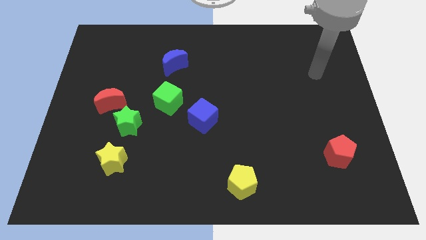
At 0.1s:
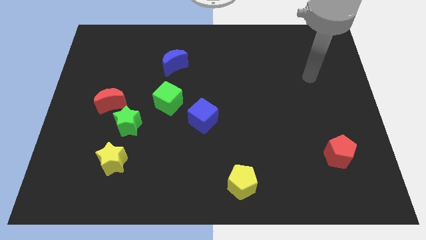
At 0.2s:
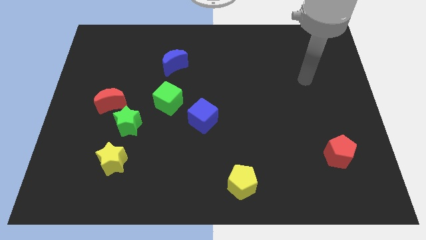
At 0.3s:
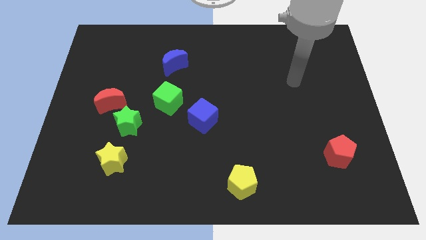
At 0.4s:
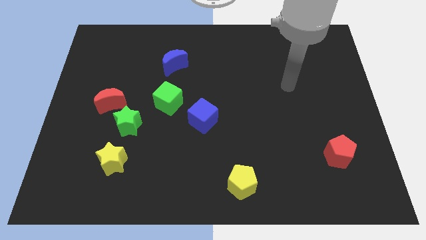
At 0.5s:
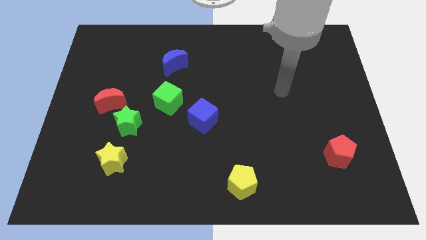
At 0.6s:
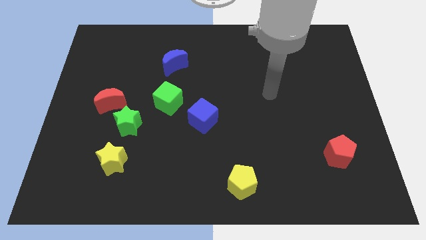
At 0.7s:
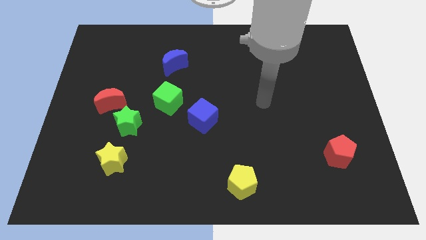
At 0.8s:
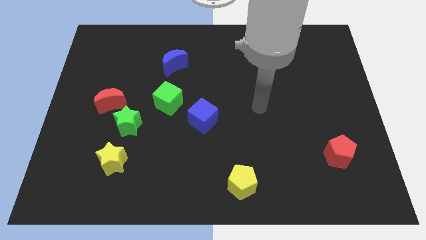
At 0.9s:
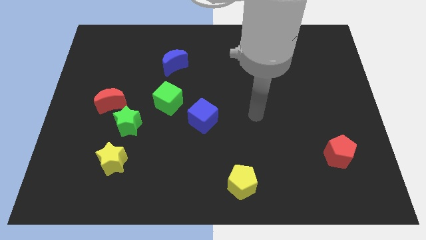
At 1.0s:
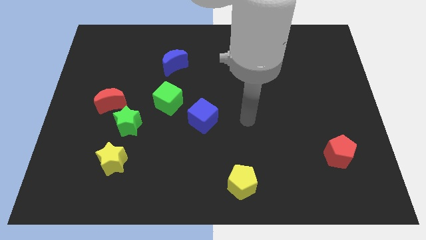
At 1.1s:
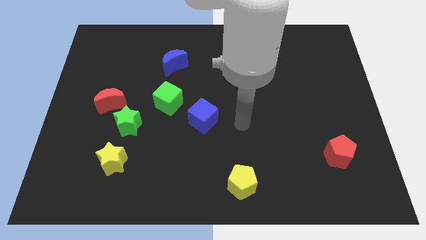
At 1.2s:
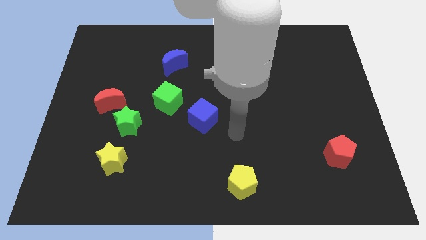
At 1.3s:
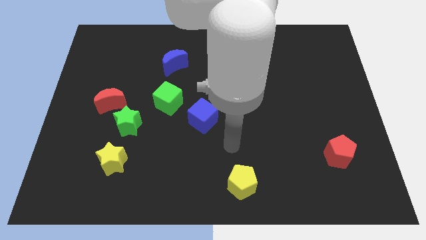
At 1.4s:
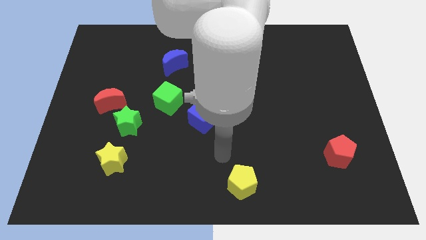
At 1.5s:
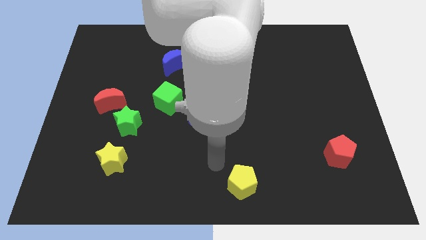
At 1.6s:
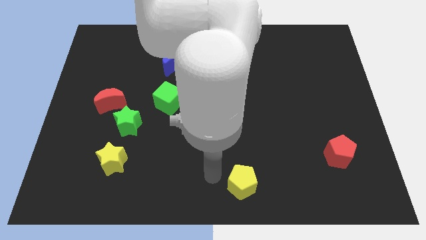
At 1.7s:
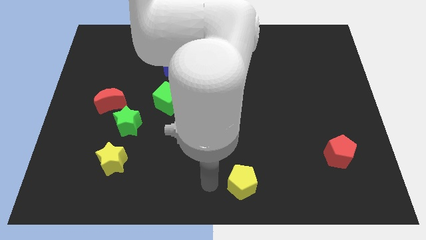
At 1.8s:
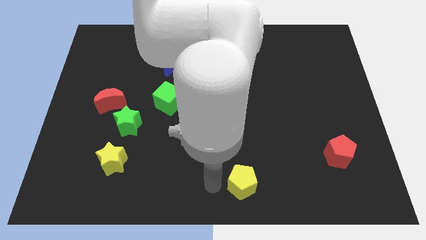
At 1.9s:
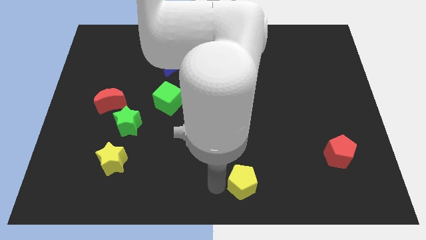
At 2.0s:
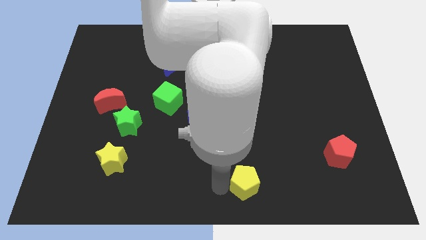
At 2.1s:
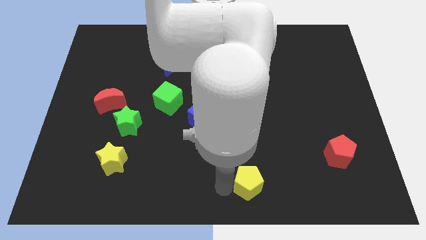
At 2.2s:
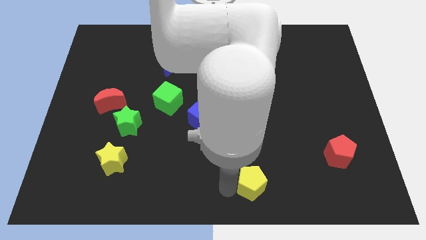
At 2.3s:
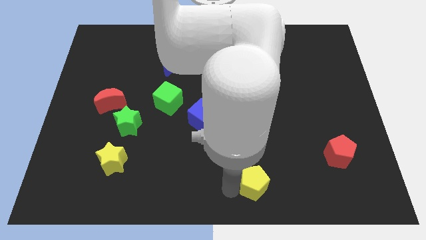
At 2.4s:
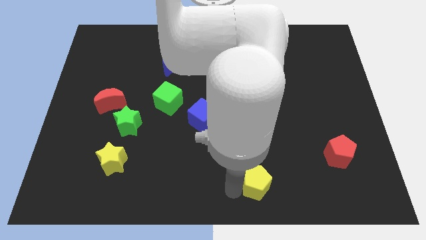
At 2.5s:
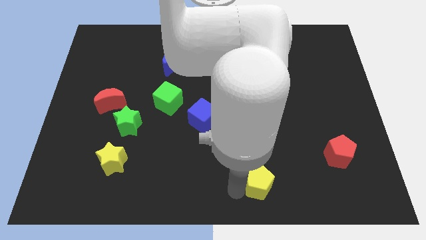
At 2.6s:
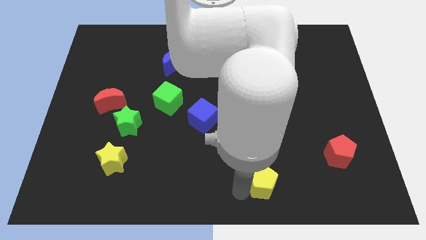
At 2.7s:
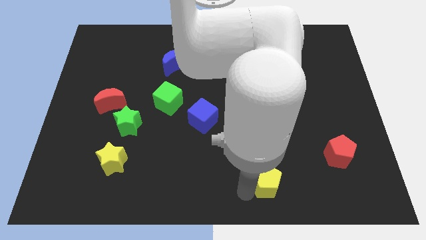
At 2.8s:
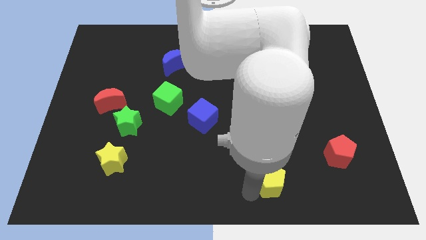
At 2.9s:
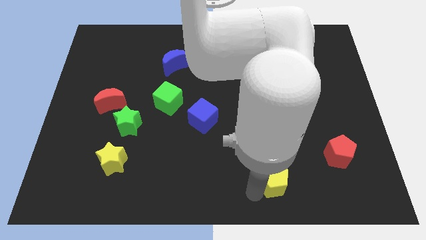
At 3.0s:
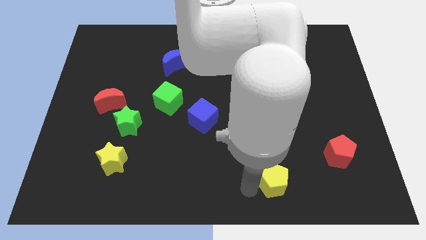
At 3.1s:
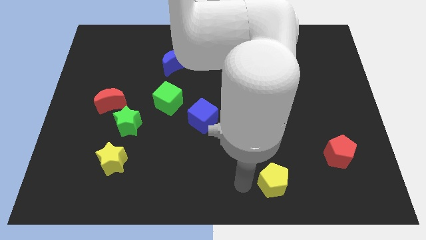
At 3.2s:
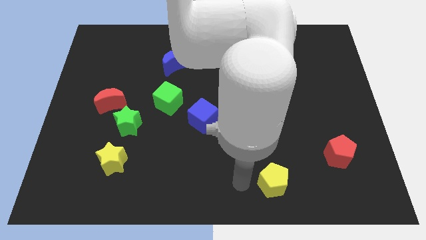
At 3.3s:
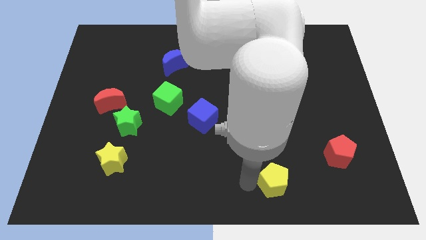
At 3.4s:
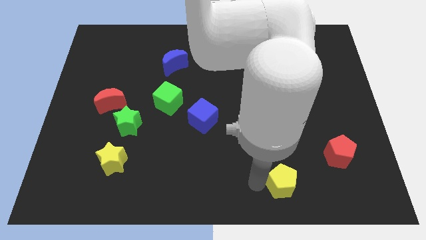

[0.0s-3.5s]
push the yellow pentagon a little bit to the right

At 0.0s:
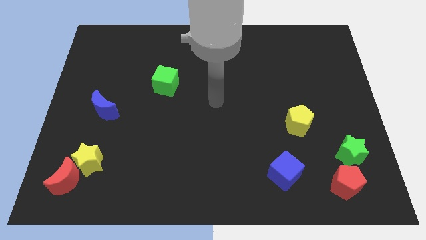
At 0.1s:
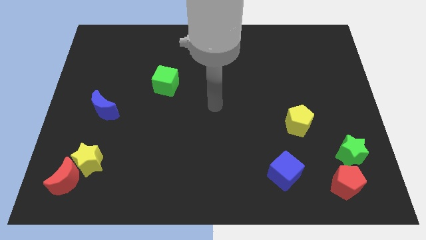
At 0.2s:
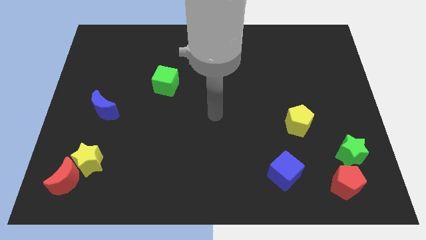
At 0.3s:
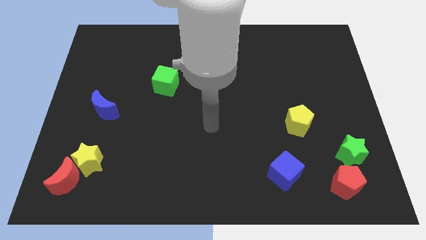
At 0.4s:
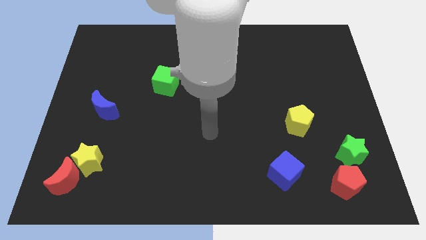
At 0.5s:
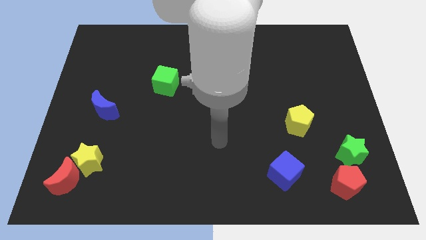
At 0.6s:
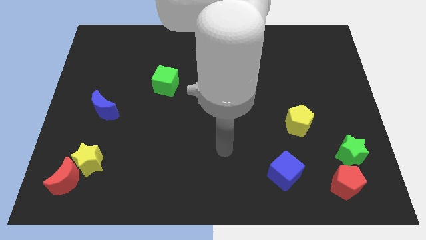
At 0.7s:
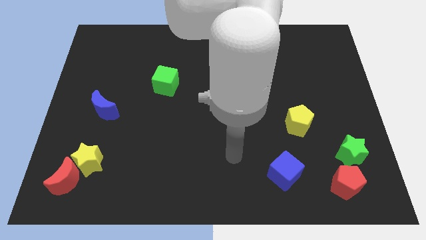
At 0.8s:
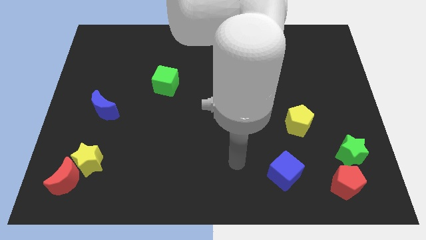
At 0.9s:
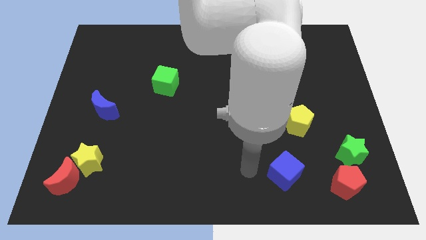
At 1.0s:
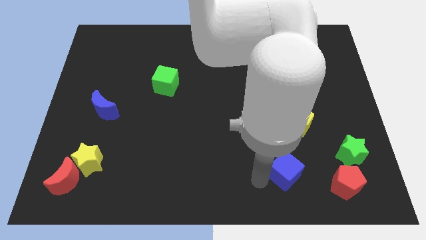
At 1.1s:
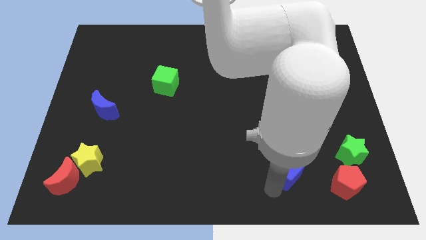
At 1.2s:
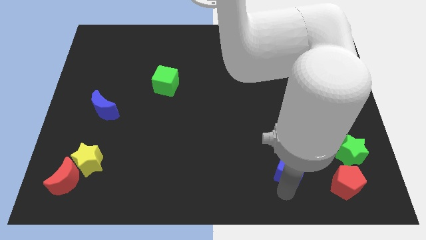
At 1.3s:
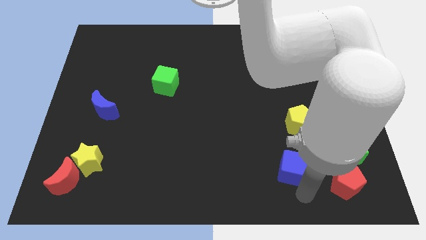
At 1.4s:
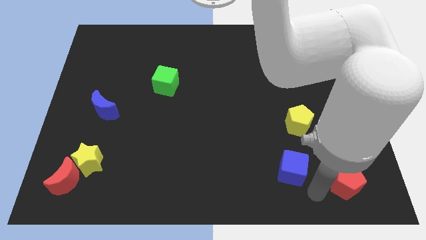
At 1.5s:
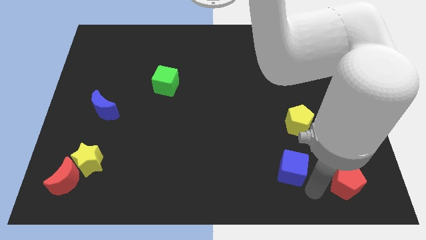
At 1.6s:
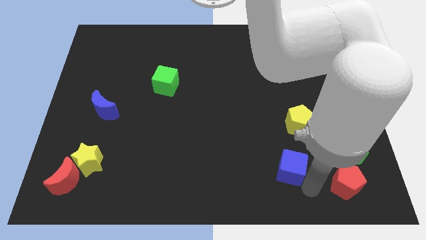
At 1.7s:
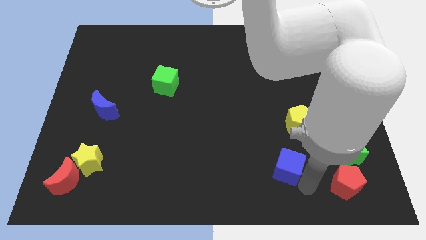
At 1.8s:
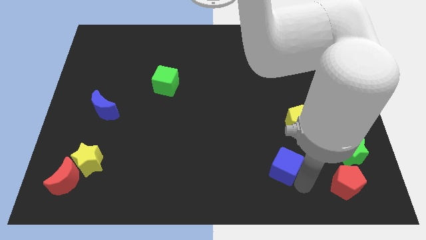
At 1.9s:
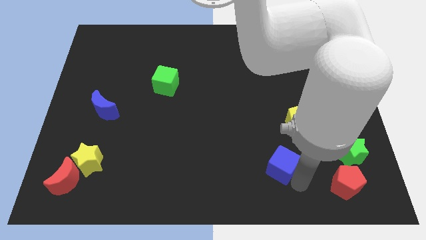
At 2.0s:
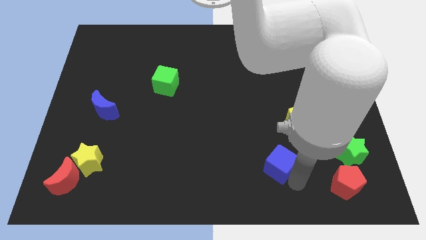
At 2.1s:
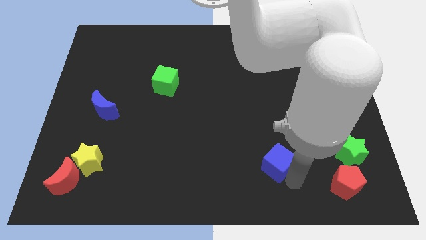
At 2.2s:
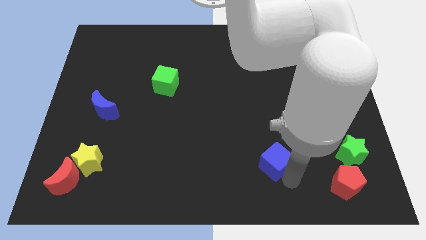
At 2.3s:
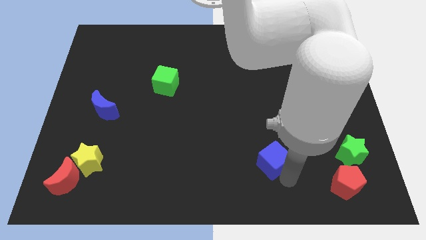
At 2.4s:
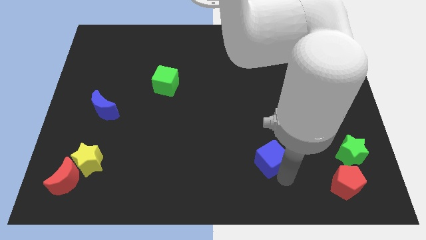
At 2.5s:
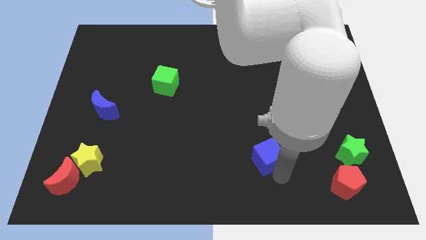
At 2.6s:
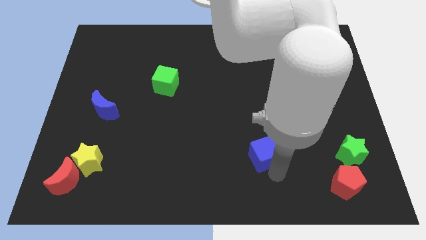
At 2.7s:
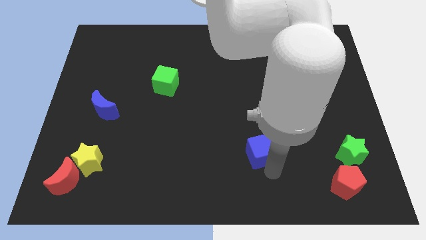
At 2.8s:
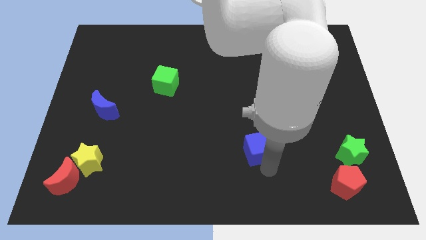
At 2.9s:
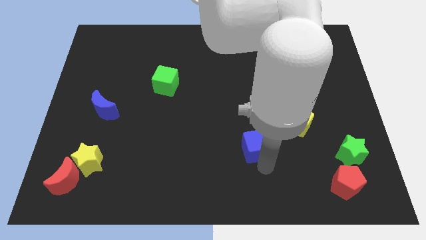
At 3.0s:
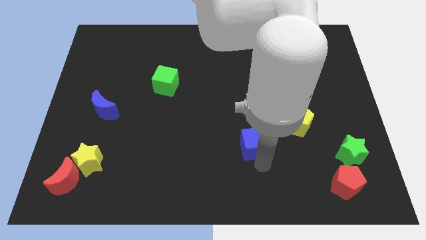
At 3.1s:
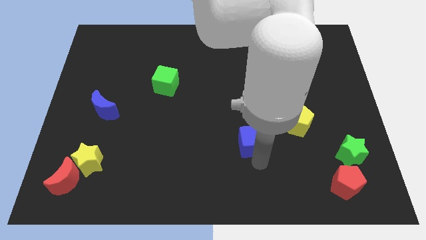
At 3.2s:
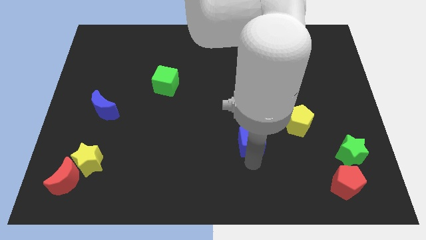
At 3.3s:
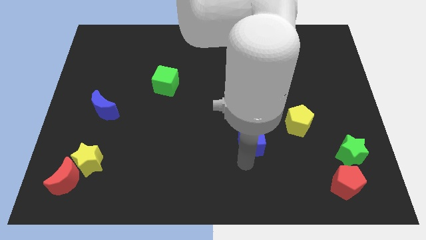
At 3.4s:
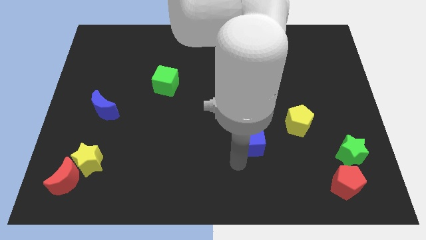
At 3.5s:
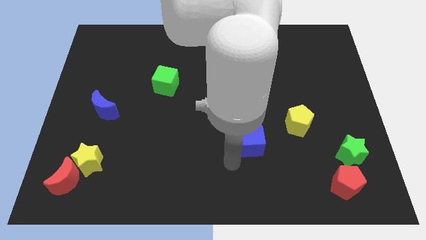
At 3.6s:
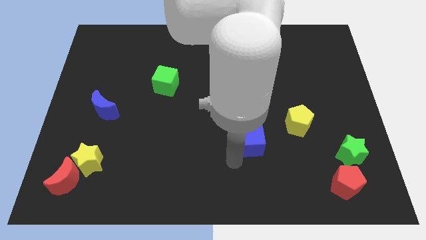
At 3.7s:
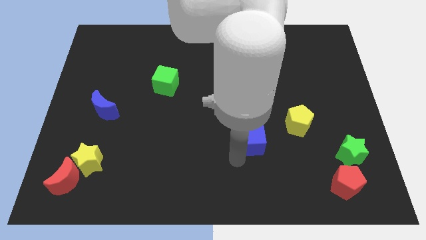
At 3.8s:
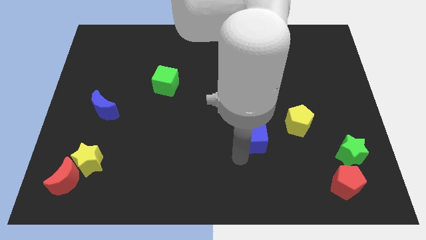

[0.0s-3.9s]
move the blue cube a little bit up

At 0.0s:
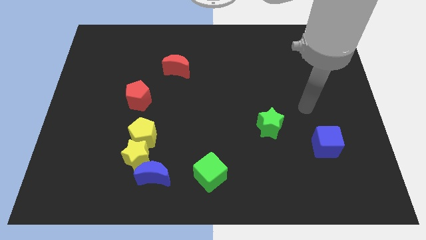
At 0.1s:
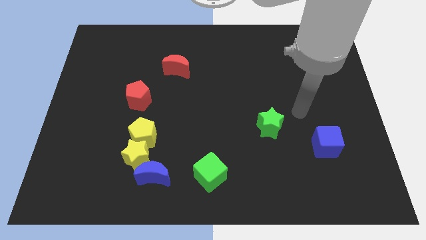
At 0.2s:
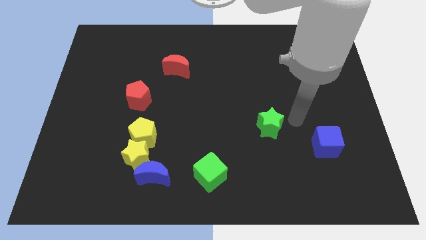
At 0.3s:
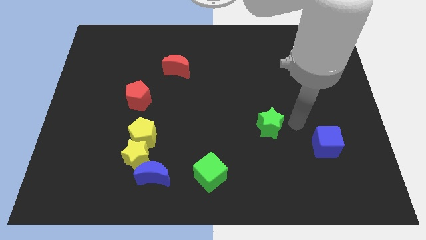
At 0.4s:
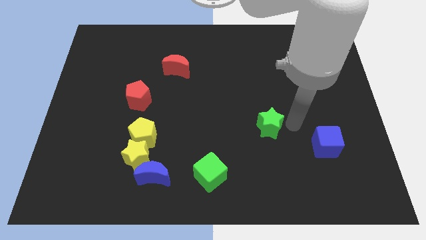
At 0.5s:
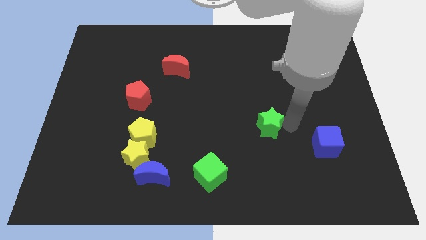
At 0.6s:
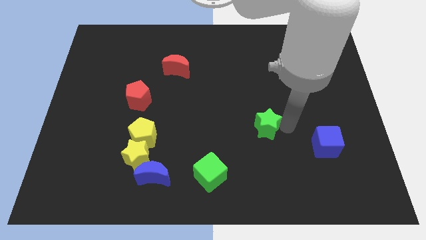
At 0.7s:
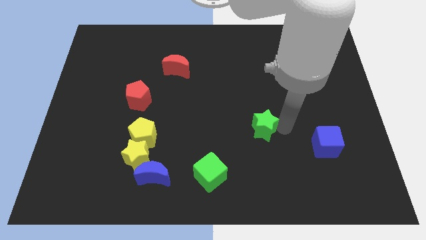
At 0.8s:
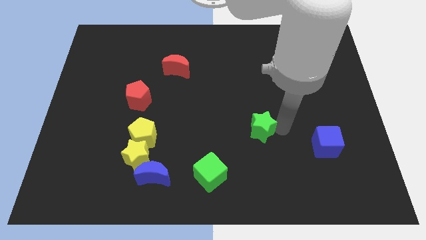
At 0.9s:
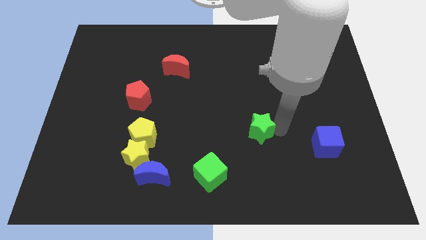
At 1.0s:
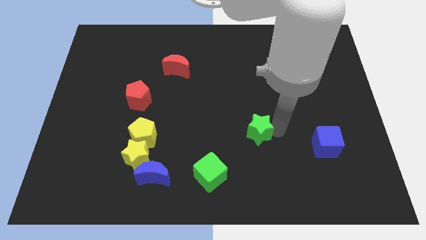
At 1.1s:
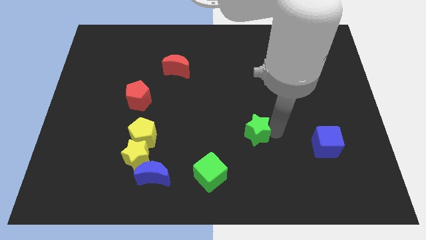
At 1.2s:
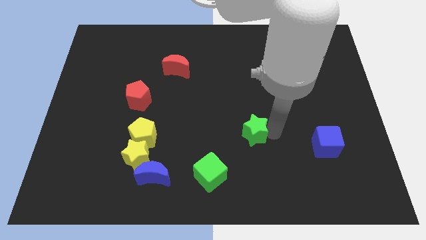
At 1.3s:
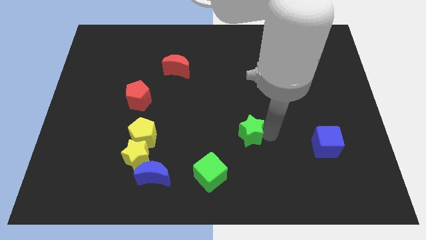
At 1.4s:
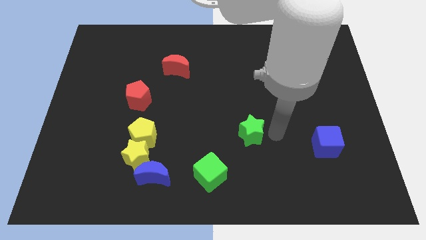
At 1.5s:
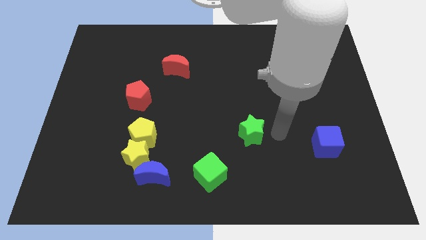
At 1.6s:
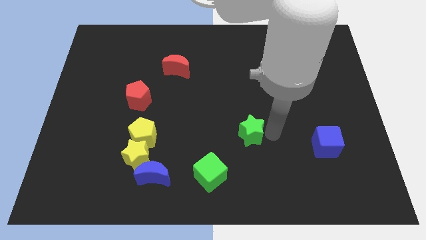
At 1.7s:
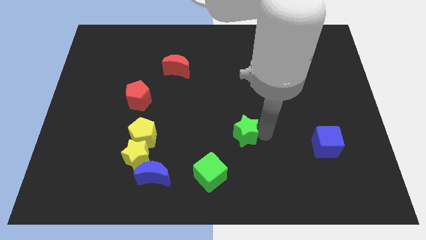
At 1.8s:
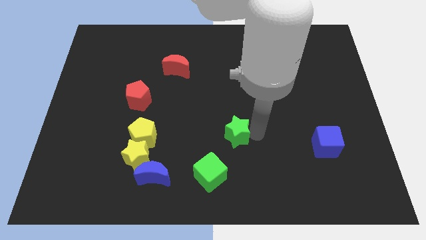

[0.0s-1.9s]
move the green star slightly left
